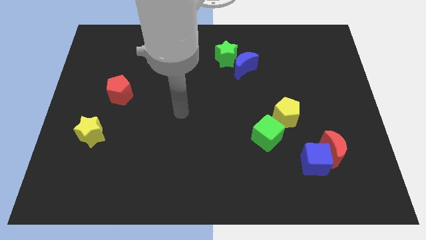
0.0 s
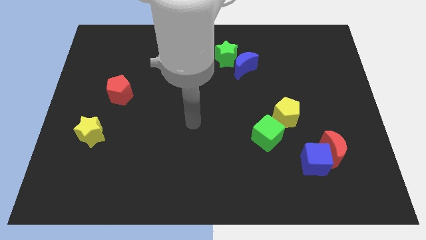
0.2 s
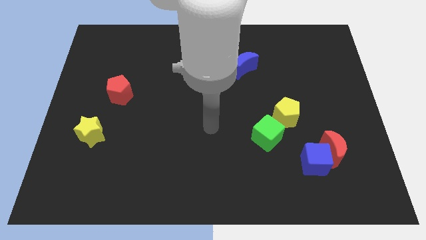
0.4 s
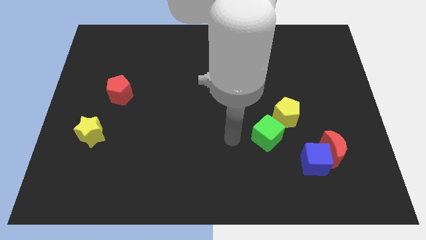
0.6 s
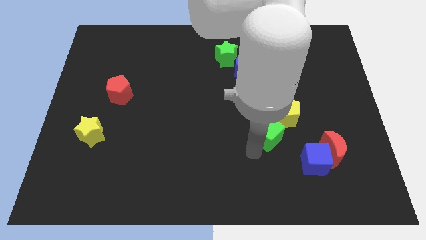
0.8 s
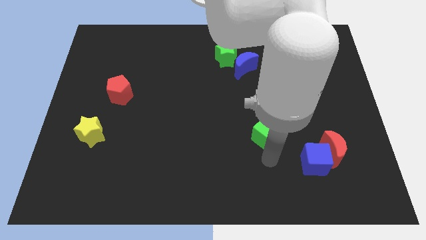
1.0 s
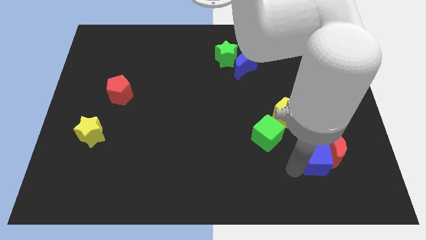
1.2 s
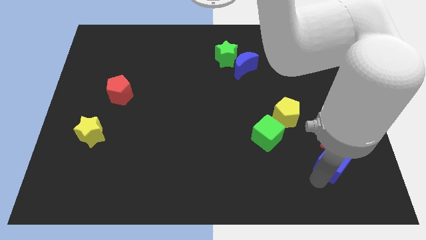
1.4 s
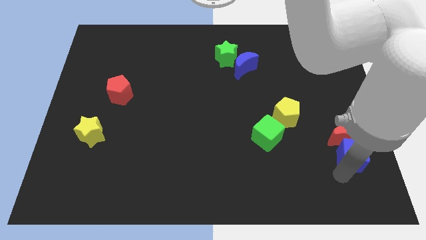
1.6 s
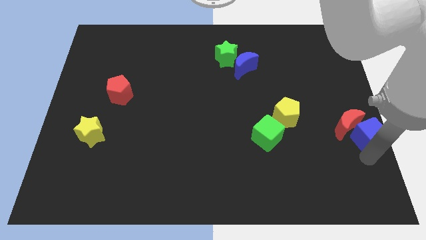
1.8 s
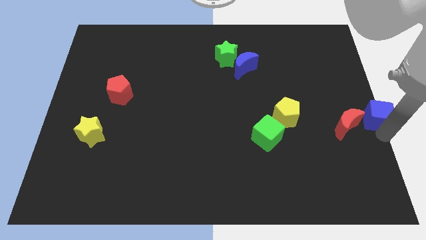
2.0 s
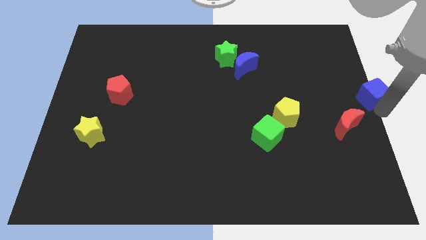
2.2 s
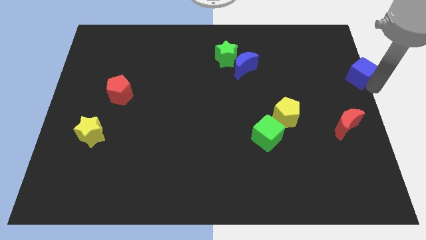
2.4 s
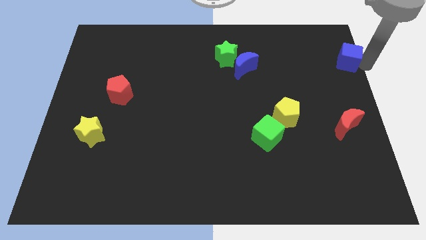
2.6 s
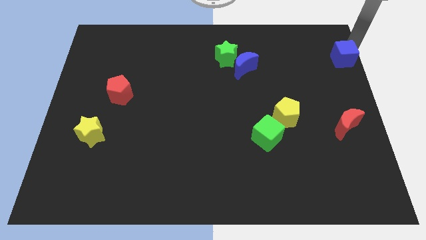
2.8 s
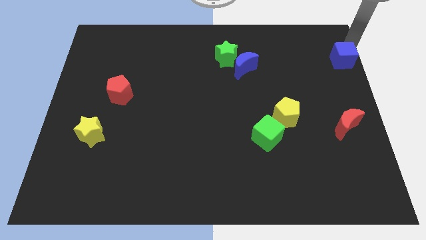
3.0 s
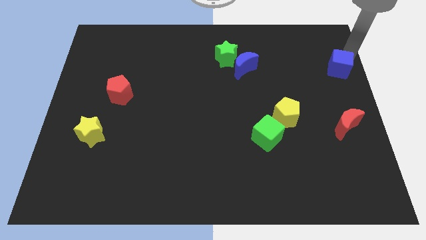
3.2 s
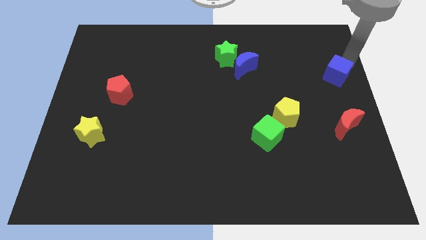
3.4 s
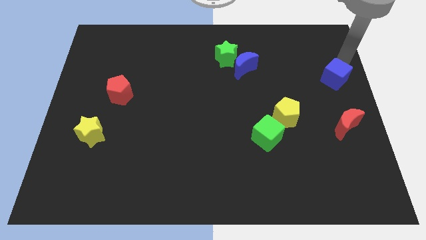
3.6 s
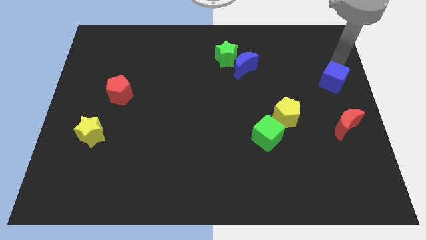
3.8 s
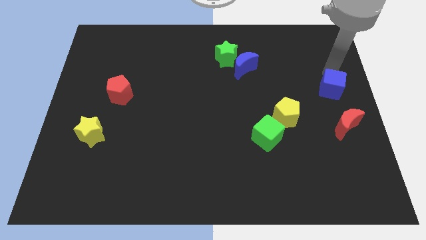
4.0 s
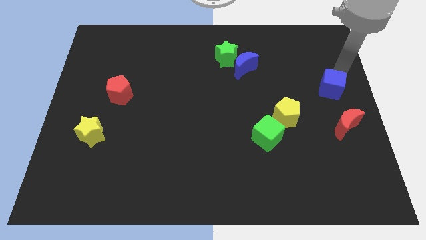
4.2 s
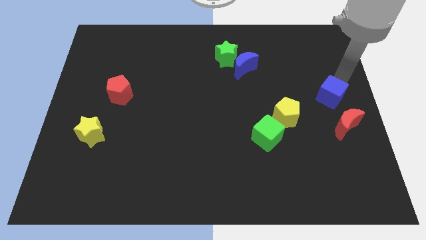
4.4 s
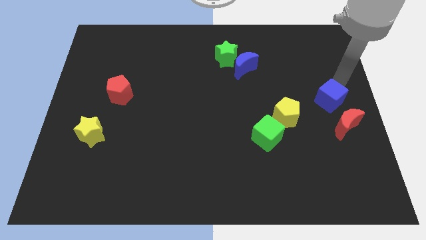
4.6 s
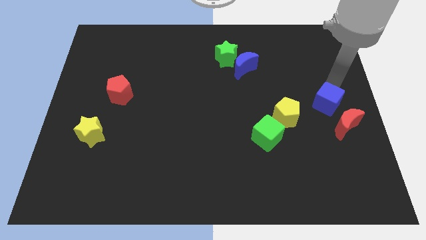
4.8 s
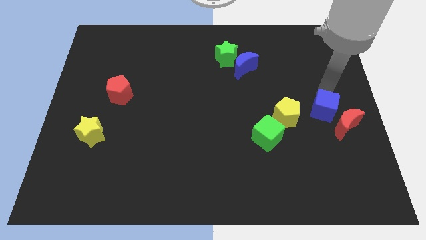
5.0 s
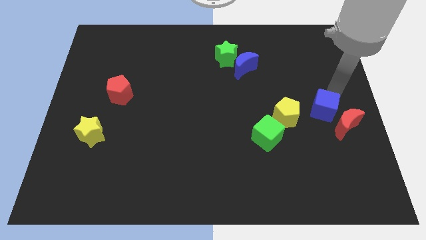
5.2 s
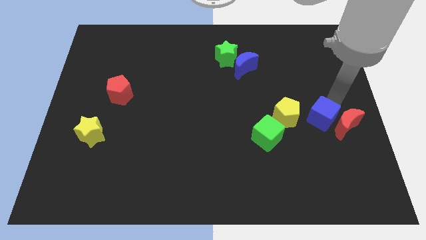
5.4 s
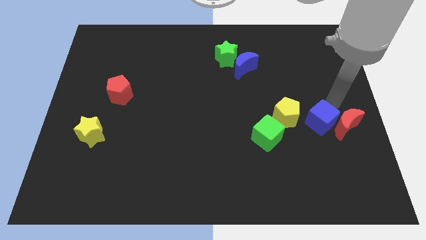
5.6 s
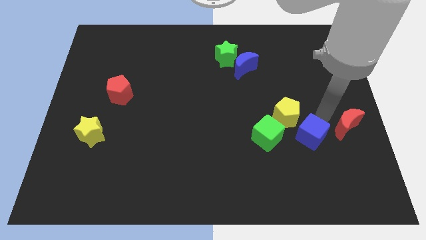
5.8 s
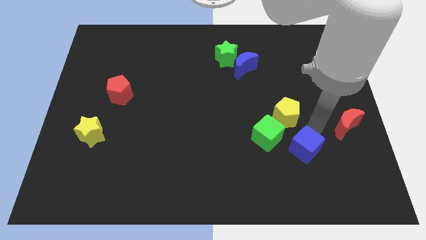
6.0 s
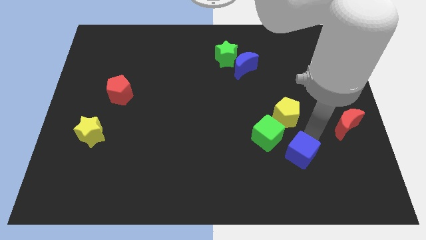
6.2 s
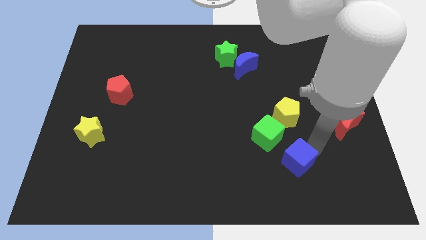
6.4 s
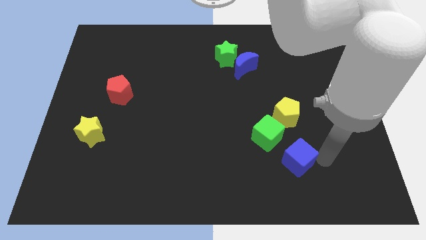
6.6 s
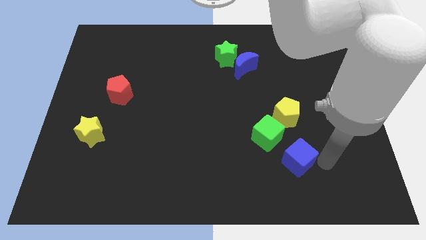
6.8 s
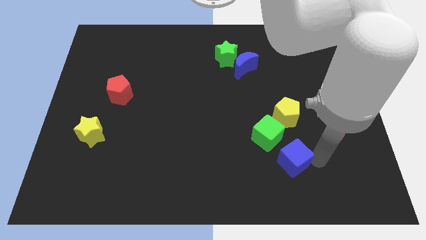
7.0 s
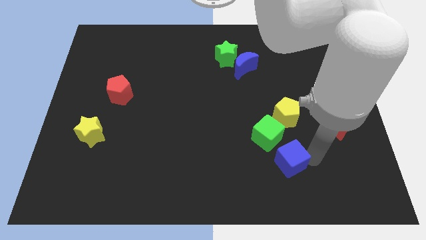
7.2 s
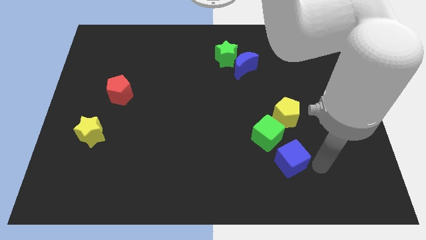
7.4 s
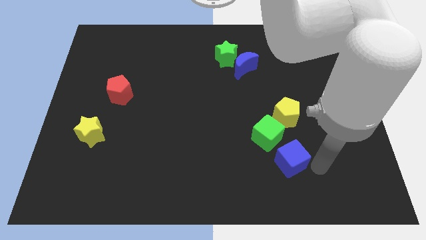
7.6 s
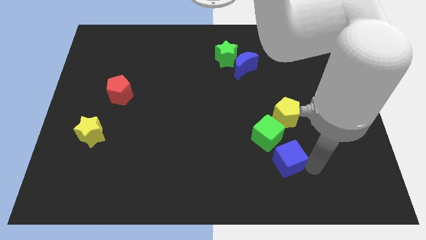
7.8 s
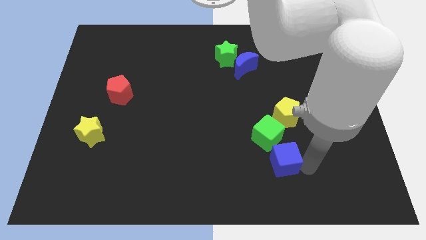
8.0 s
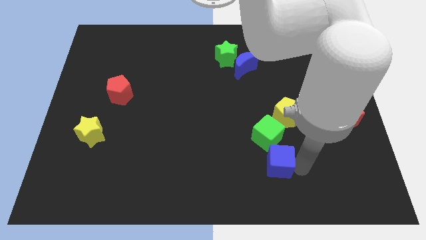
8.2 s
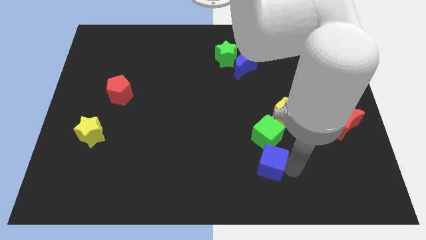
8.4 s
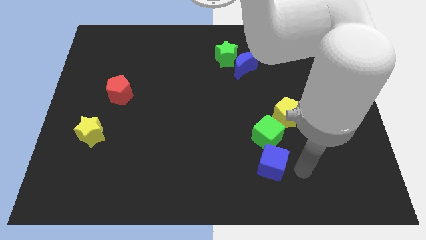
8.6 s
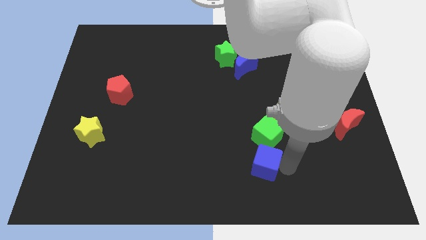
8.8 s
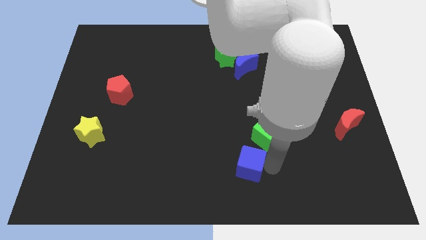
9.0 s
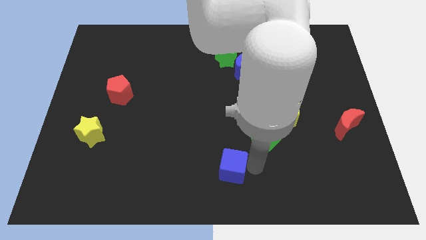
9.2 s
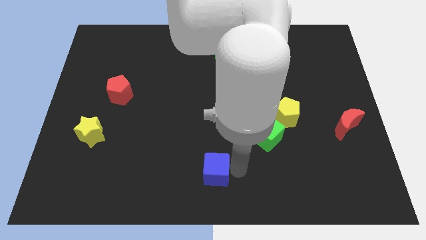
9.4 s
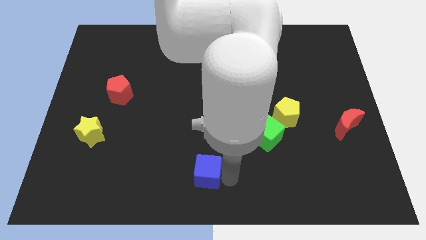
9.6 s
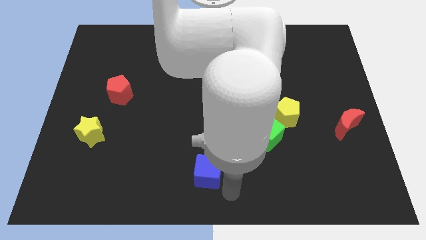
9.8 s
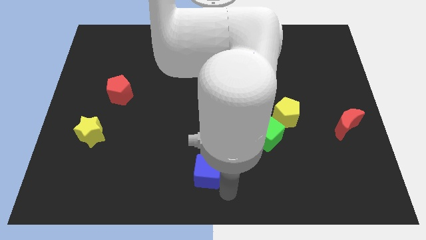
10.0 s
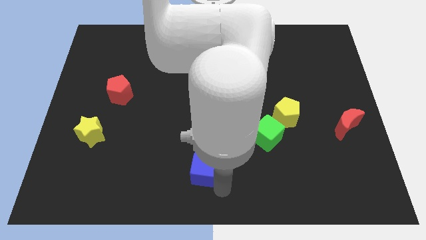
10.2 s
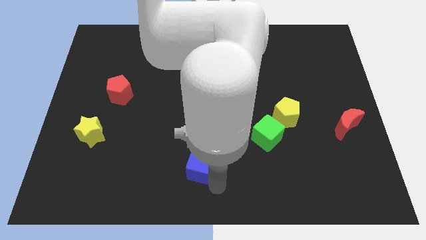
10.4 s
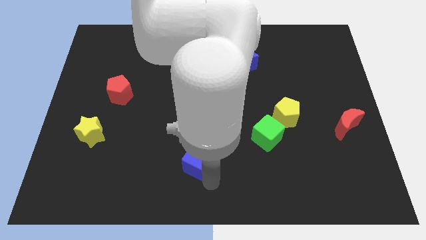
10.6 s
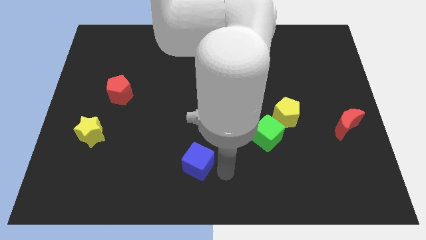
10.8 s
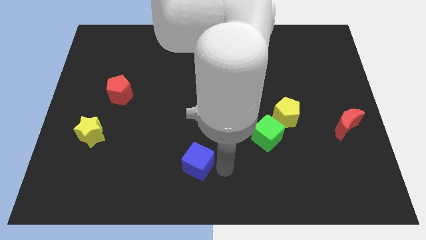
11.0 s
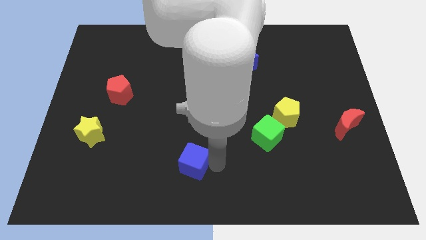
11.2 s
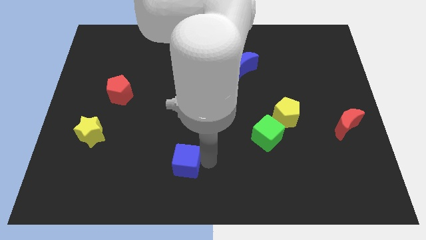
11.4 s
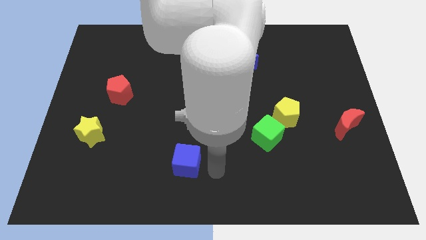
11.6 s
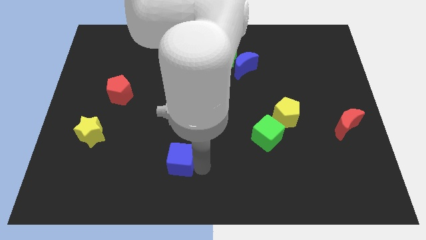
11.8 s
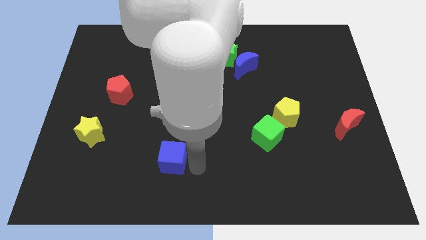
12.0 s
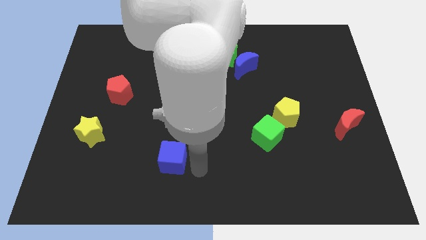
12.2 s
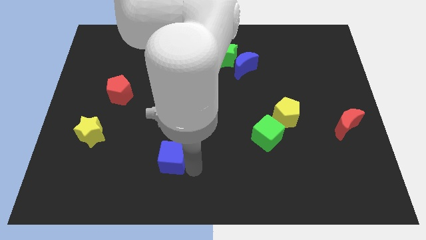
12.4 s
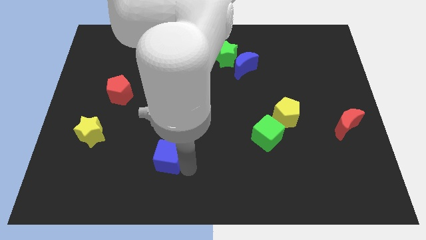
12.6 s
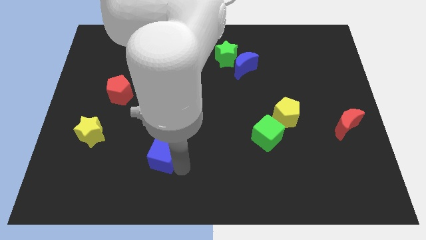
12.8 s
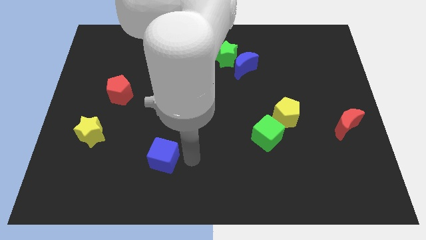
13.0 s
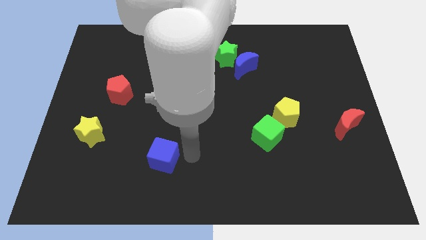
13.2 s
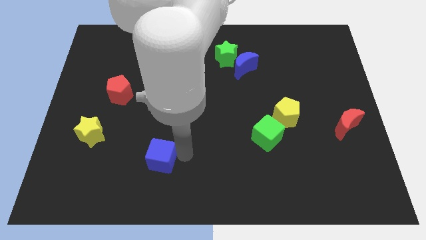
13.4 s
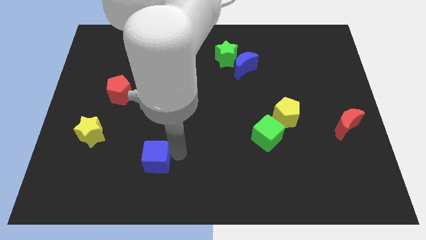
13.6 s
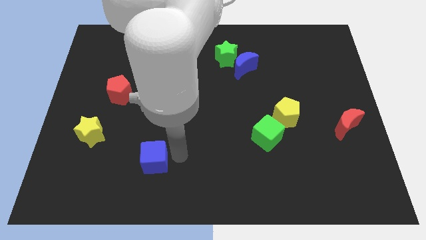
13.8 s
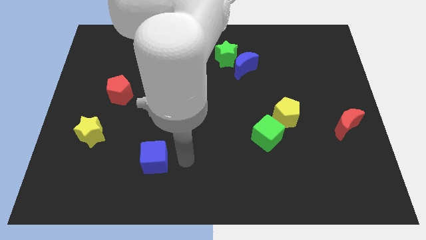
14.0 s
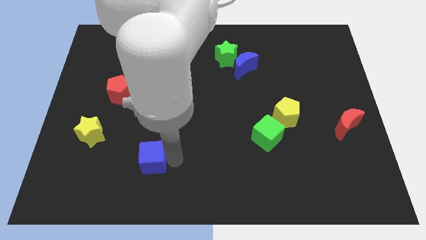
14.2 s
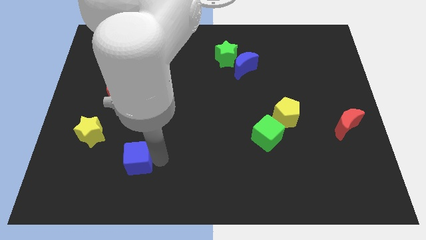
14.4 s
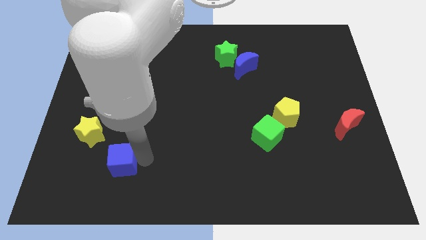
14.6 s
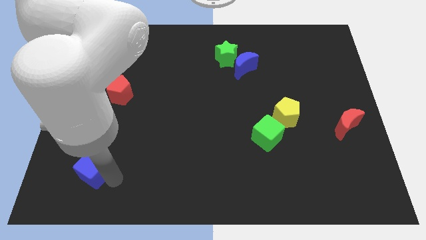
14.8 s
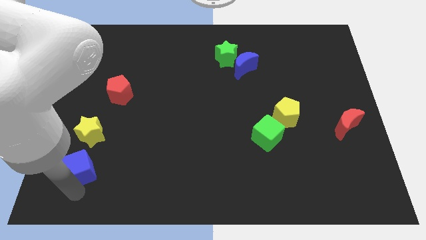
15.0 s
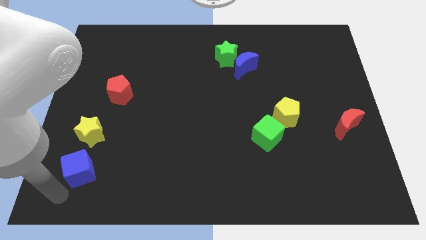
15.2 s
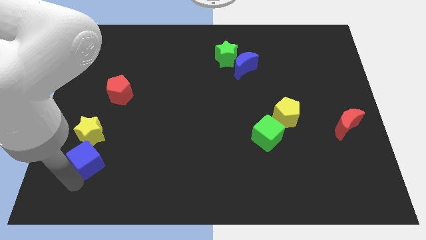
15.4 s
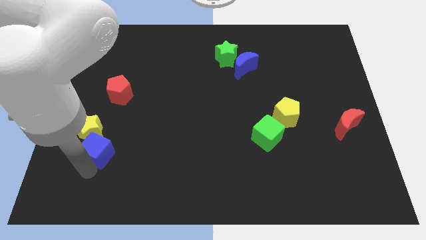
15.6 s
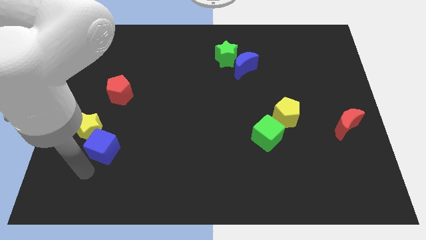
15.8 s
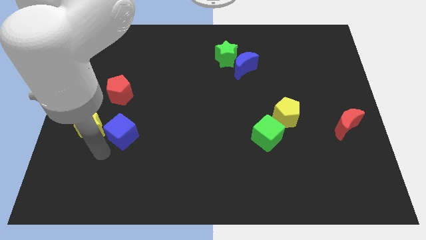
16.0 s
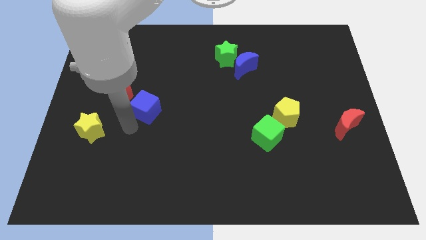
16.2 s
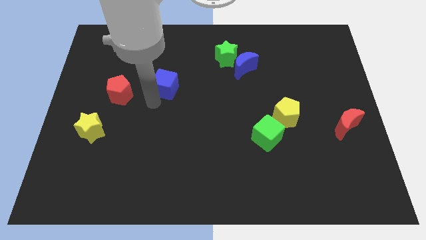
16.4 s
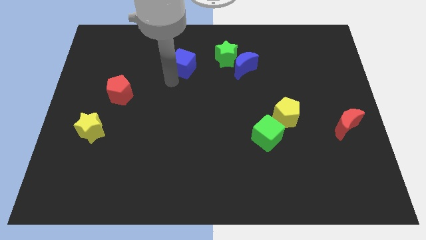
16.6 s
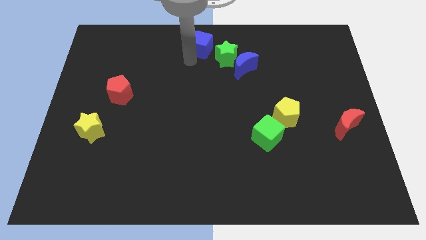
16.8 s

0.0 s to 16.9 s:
push the blue cube to the towards your base
